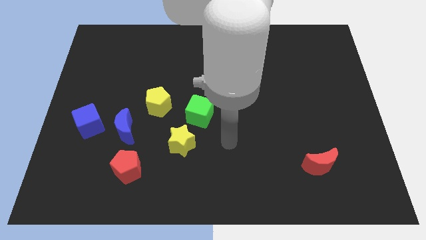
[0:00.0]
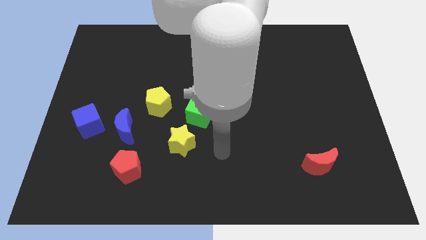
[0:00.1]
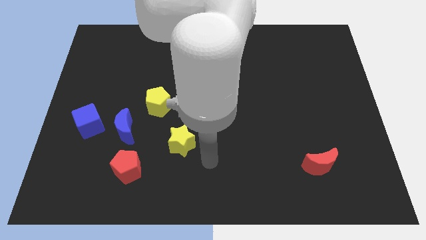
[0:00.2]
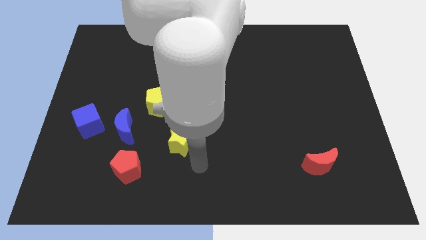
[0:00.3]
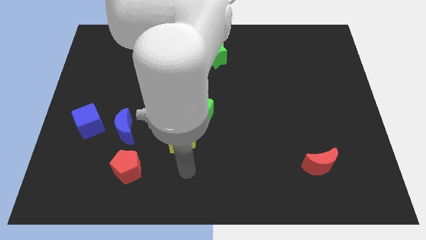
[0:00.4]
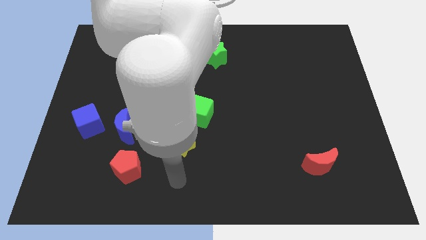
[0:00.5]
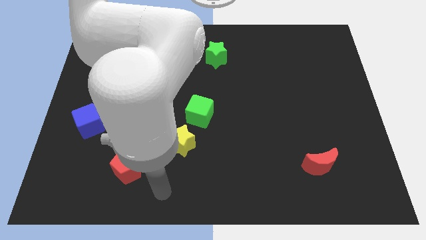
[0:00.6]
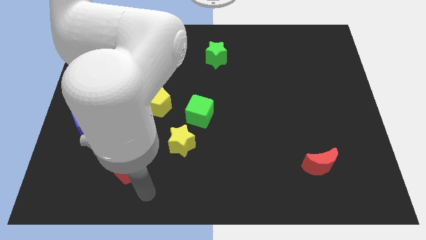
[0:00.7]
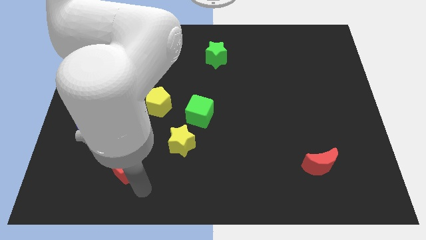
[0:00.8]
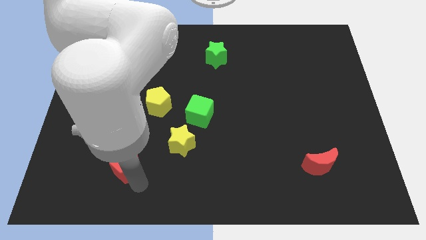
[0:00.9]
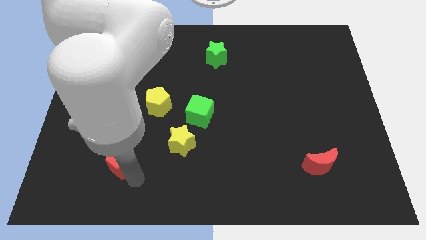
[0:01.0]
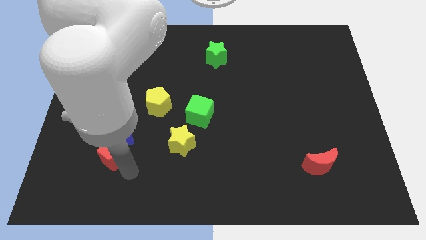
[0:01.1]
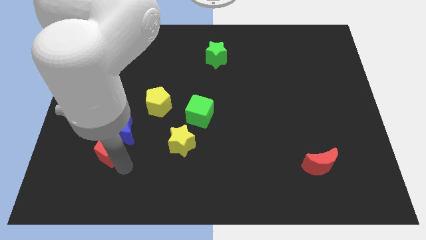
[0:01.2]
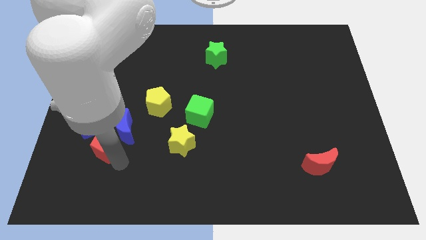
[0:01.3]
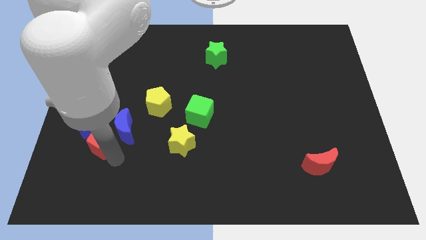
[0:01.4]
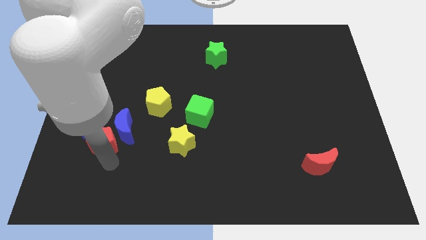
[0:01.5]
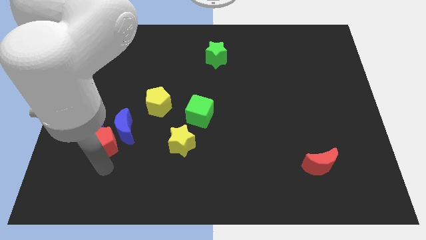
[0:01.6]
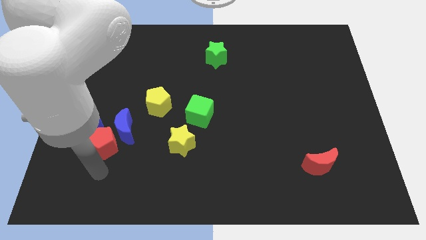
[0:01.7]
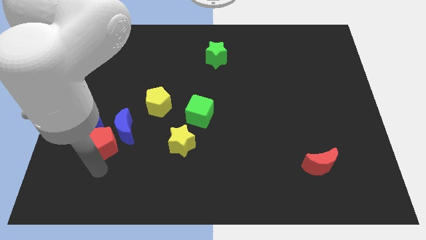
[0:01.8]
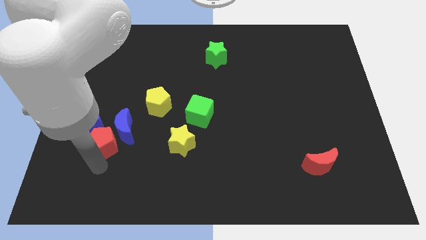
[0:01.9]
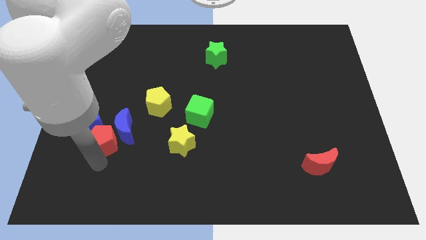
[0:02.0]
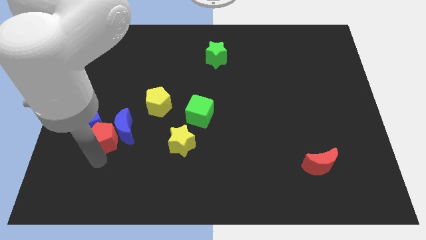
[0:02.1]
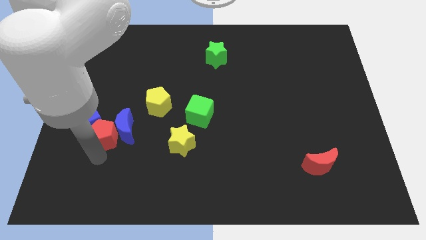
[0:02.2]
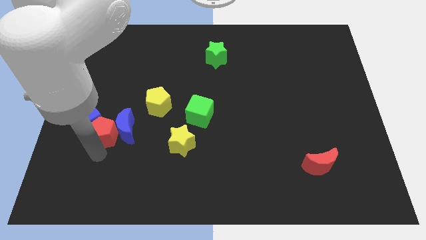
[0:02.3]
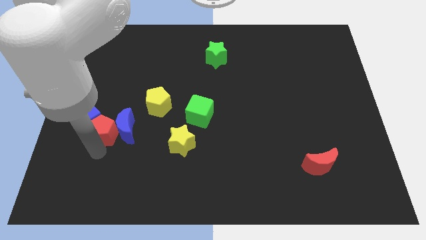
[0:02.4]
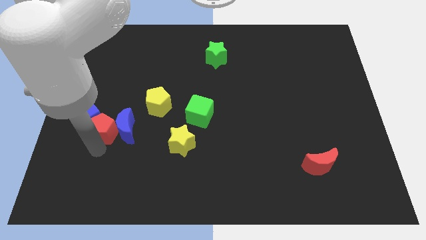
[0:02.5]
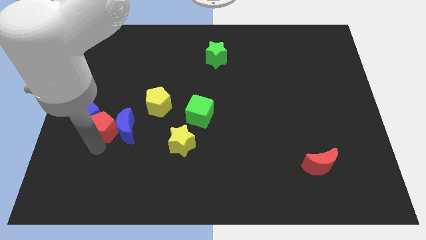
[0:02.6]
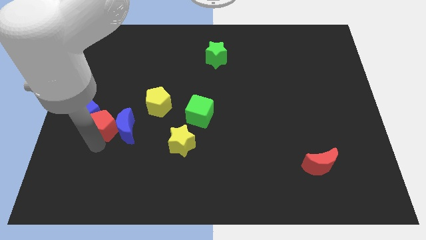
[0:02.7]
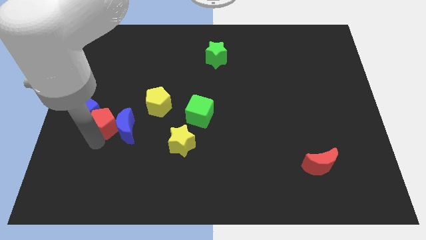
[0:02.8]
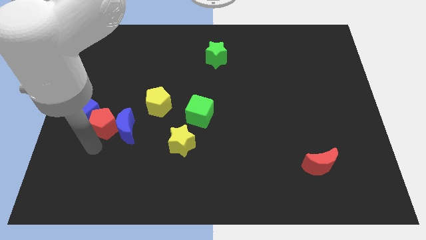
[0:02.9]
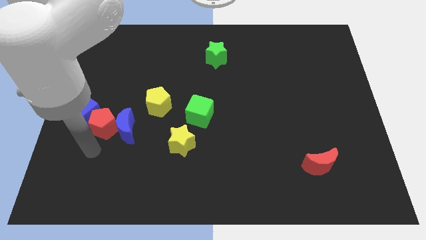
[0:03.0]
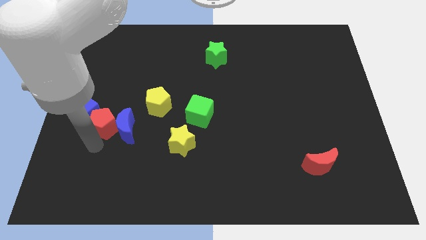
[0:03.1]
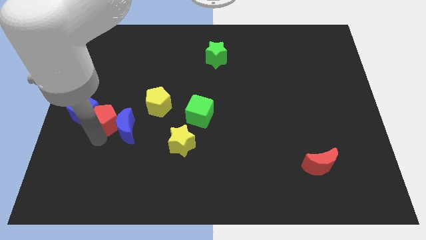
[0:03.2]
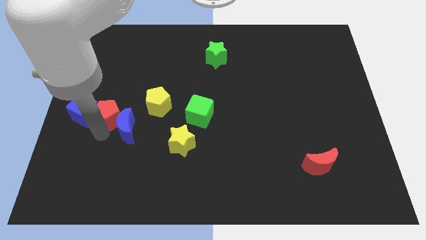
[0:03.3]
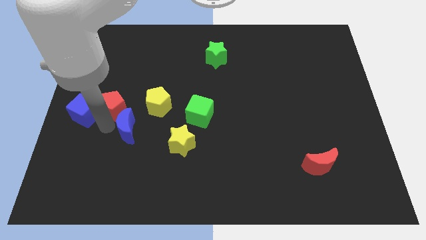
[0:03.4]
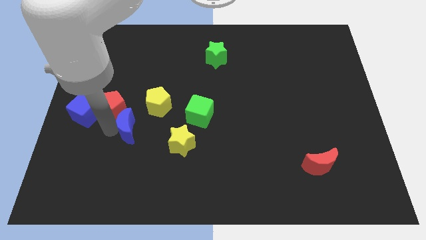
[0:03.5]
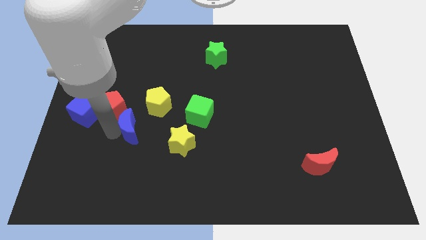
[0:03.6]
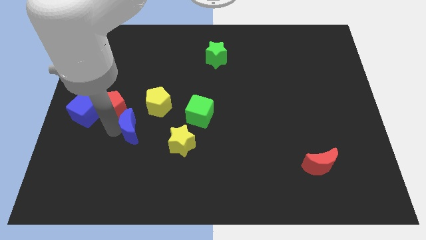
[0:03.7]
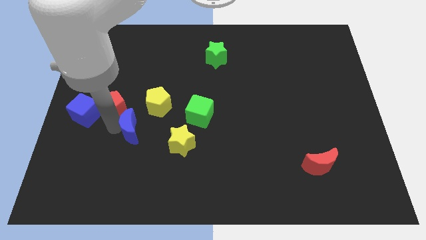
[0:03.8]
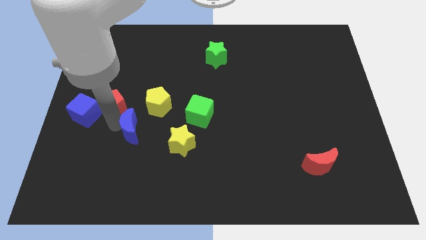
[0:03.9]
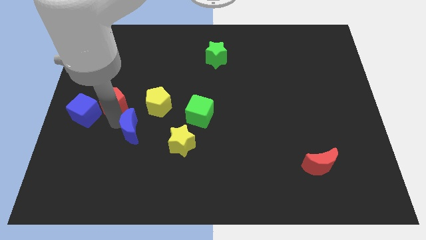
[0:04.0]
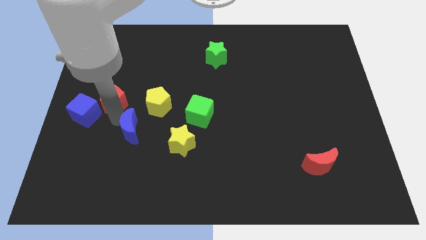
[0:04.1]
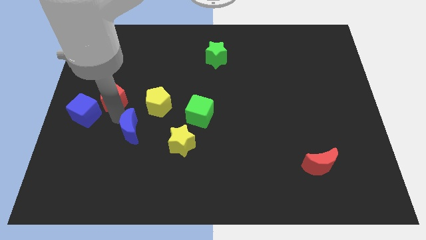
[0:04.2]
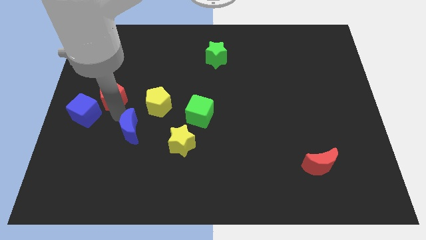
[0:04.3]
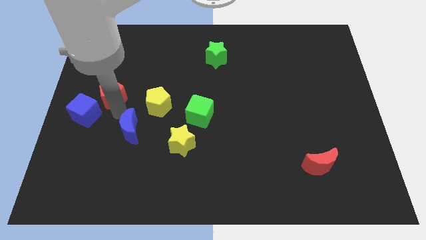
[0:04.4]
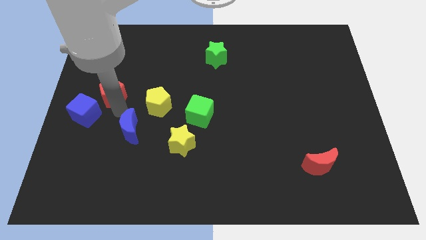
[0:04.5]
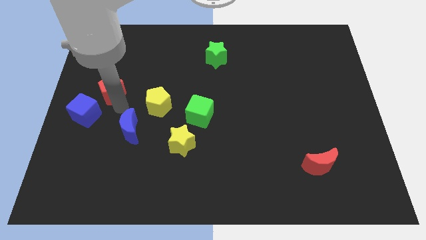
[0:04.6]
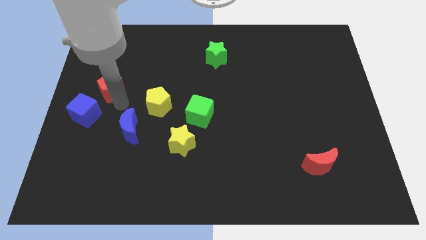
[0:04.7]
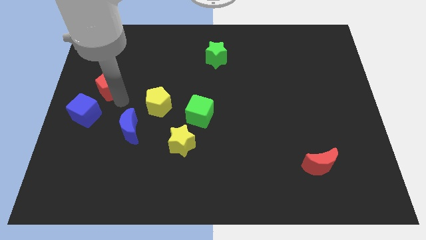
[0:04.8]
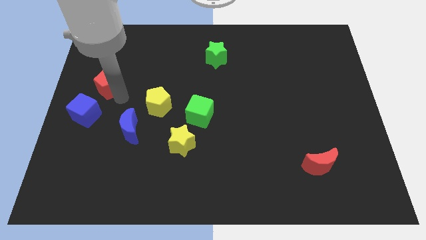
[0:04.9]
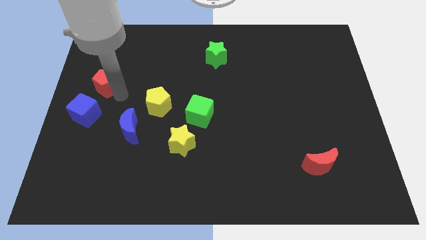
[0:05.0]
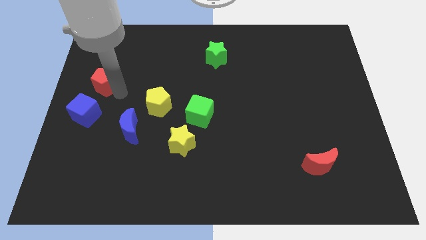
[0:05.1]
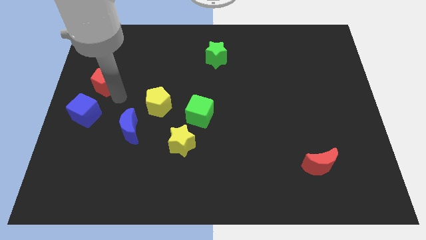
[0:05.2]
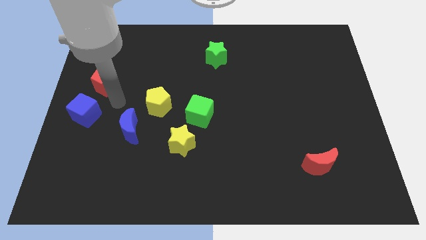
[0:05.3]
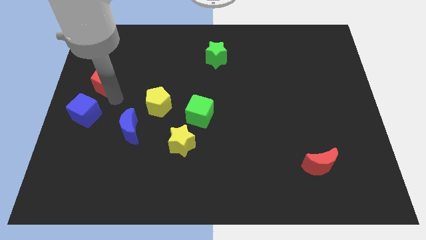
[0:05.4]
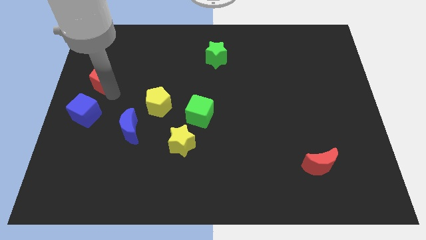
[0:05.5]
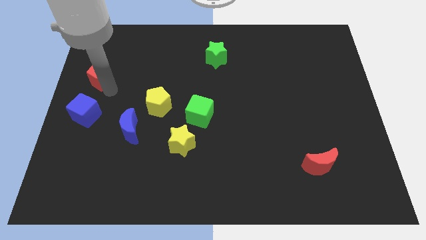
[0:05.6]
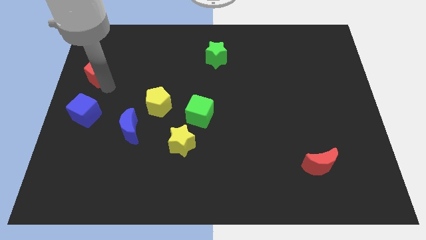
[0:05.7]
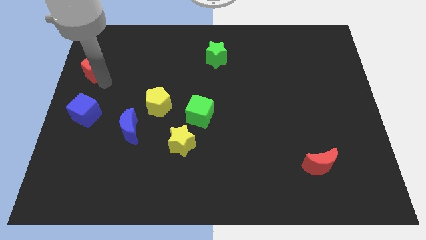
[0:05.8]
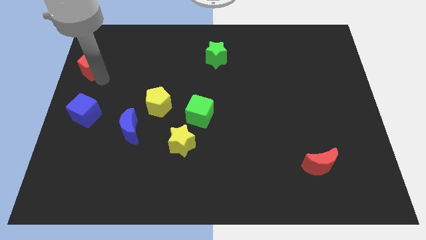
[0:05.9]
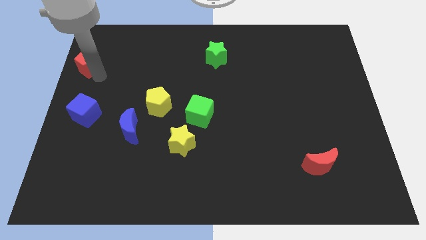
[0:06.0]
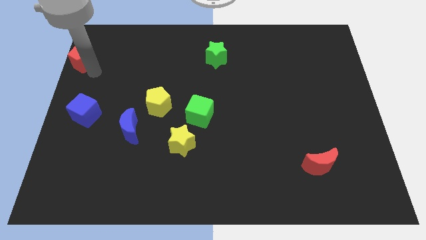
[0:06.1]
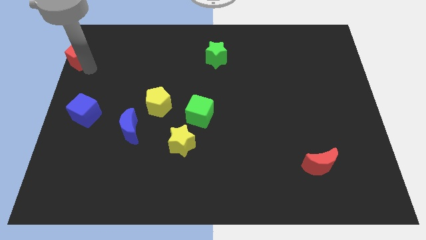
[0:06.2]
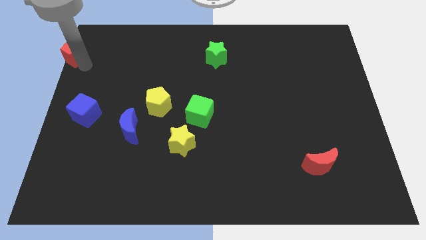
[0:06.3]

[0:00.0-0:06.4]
slide the red pentagon to the top left of the board
